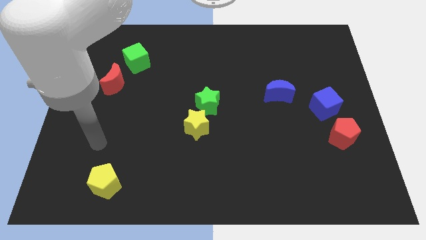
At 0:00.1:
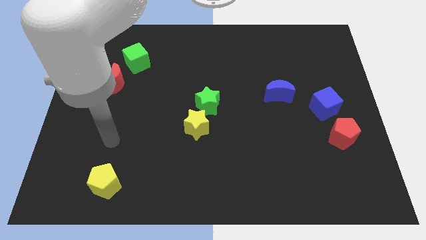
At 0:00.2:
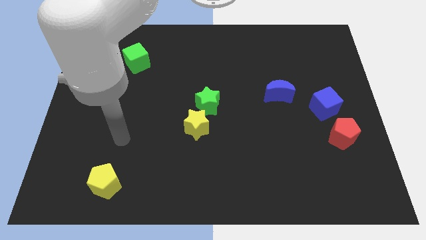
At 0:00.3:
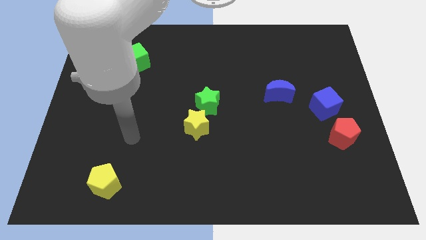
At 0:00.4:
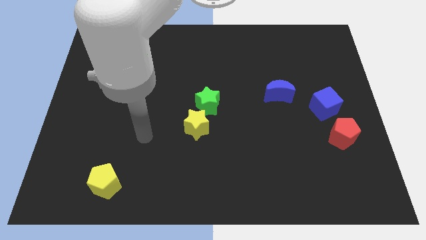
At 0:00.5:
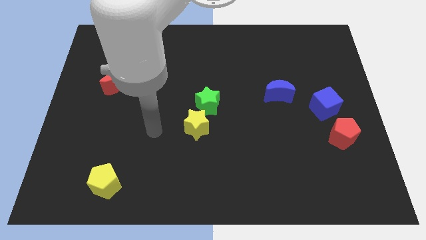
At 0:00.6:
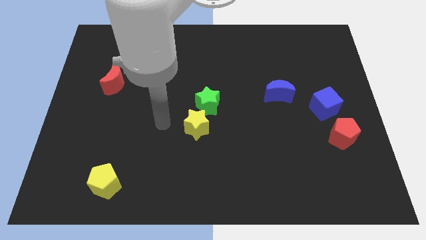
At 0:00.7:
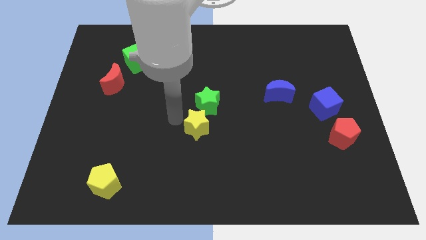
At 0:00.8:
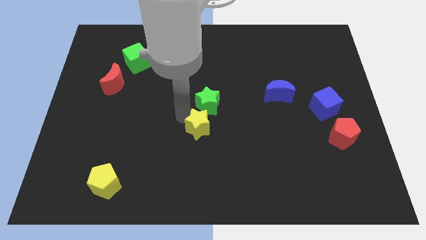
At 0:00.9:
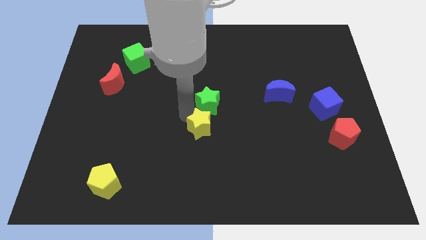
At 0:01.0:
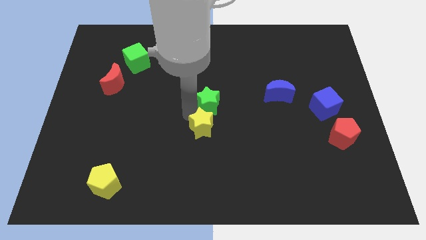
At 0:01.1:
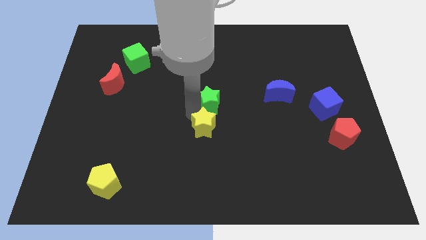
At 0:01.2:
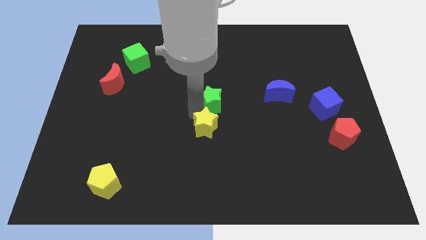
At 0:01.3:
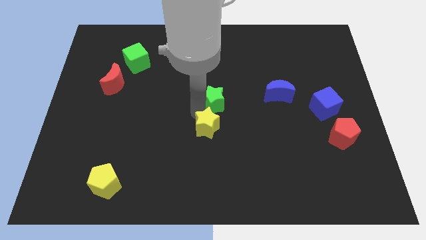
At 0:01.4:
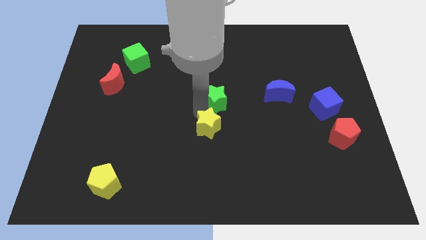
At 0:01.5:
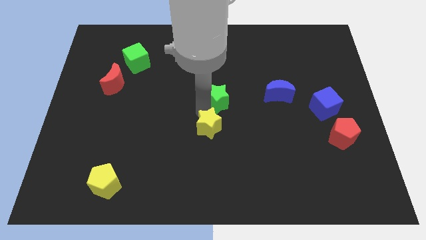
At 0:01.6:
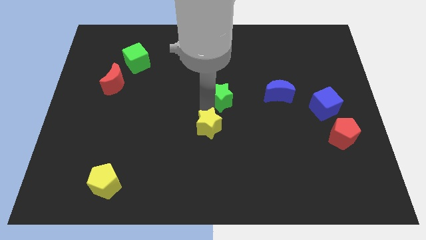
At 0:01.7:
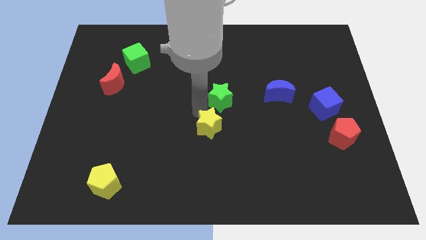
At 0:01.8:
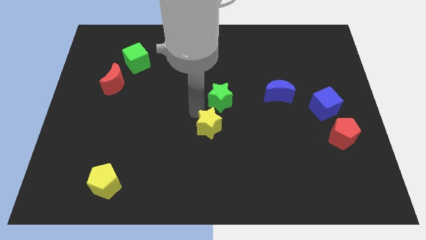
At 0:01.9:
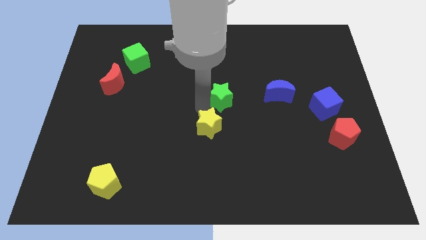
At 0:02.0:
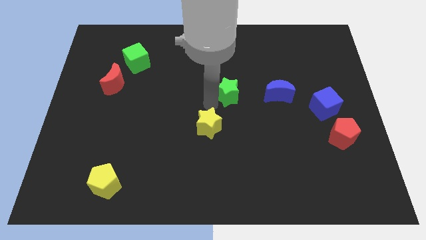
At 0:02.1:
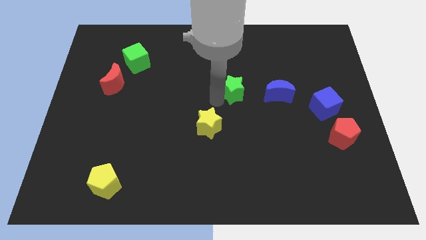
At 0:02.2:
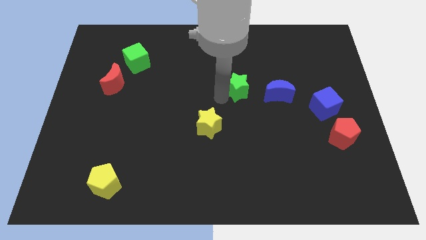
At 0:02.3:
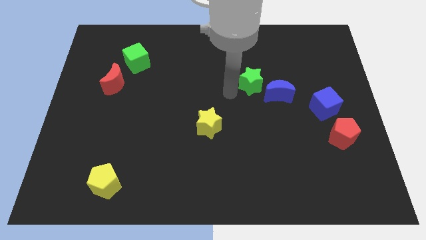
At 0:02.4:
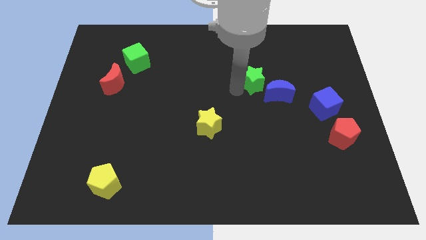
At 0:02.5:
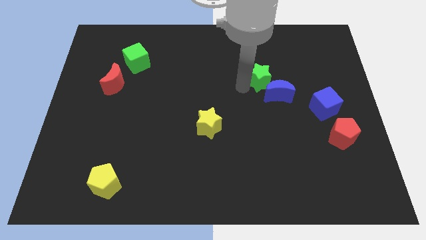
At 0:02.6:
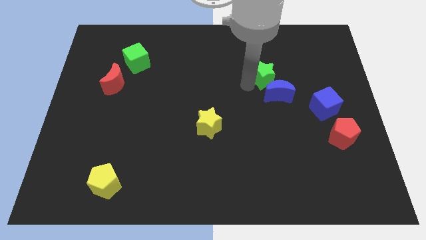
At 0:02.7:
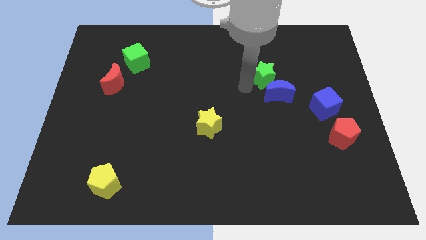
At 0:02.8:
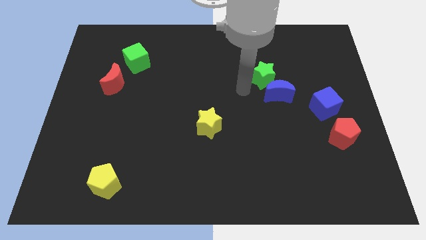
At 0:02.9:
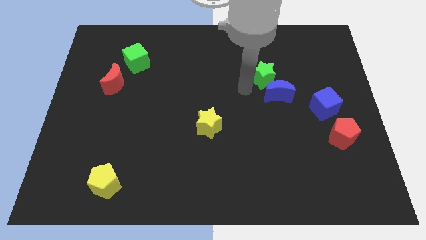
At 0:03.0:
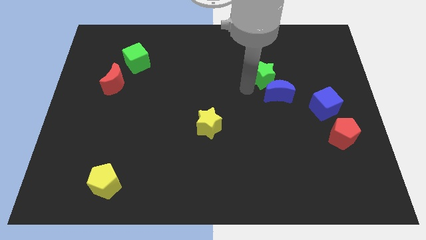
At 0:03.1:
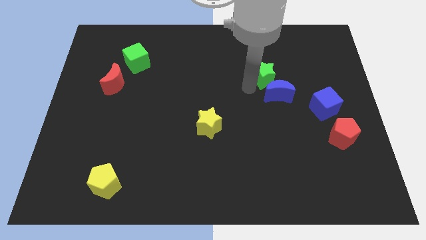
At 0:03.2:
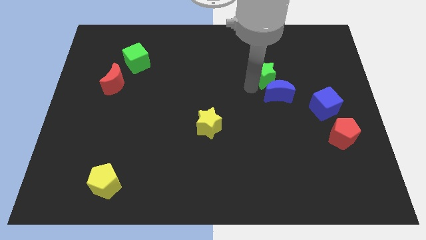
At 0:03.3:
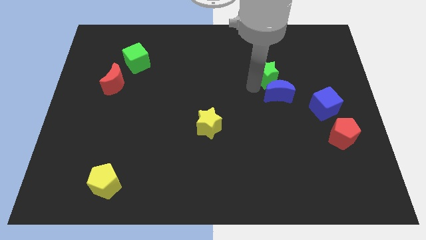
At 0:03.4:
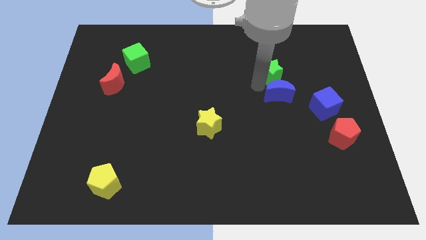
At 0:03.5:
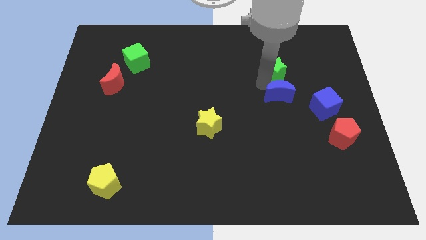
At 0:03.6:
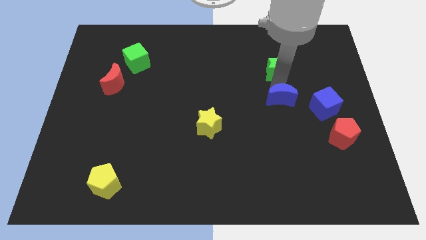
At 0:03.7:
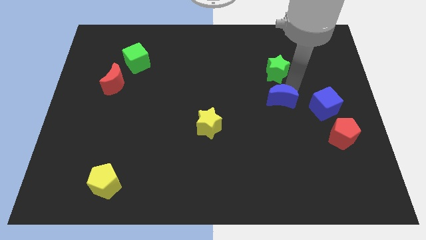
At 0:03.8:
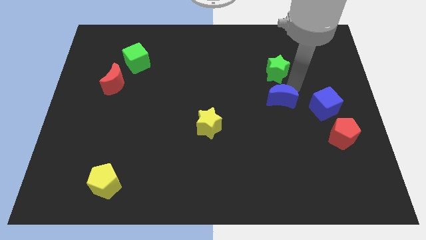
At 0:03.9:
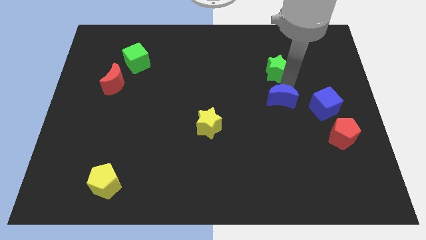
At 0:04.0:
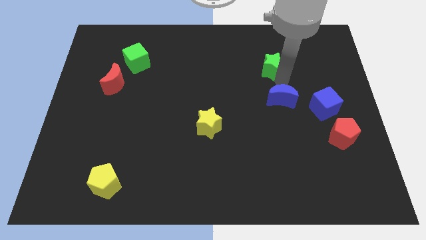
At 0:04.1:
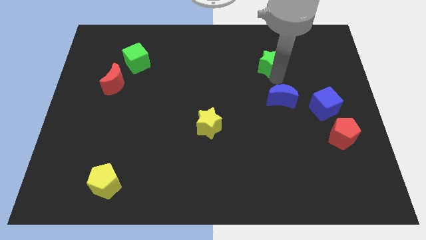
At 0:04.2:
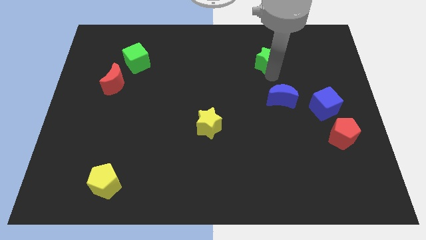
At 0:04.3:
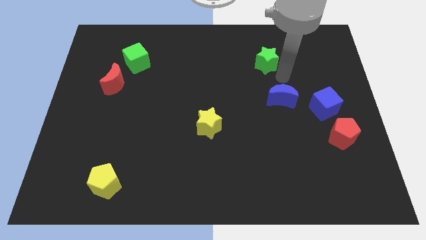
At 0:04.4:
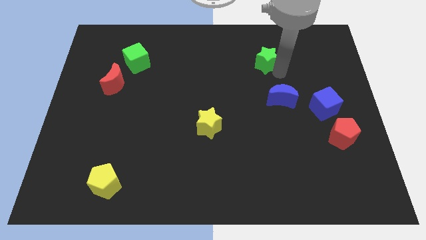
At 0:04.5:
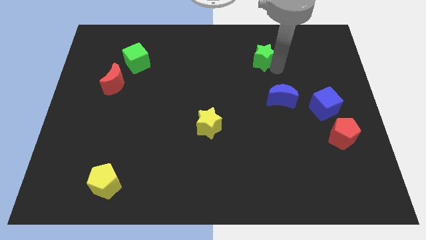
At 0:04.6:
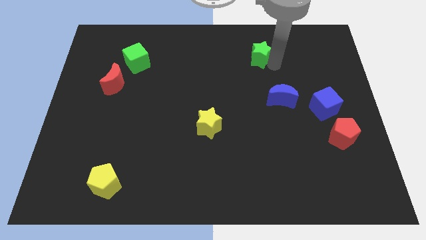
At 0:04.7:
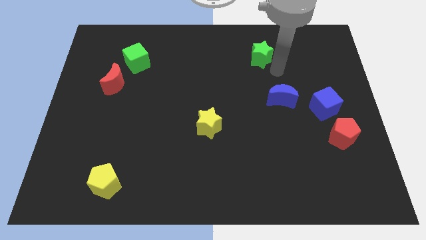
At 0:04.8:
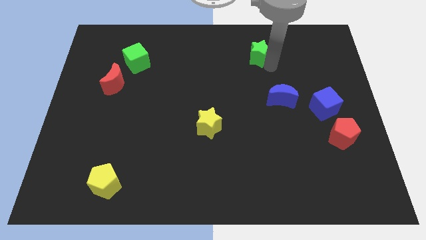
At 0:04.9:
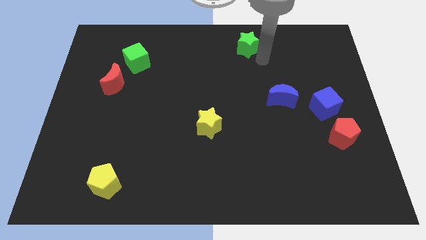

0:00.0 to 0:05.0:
slide the green star to the top side

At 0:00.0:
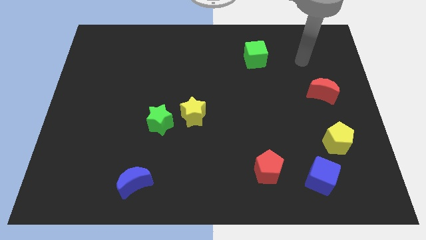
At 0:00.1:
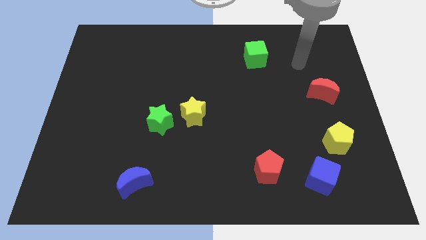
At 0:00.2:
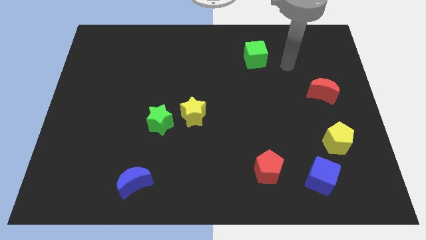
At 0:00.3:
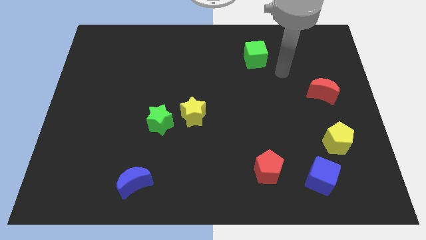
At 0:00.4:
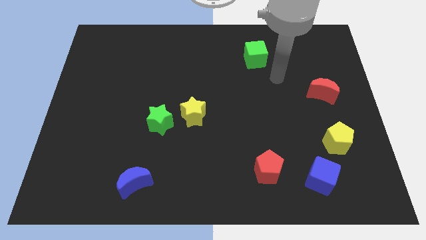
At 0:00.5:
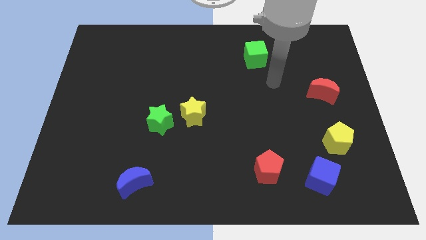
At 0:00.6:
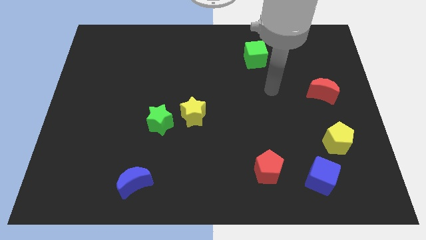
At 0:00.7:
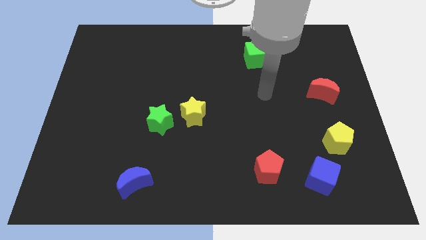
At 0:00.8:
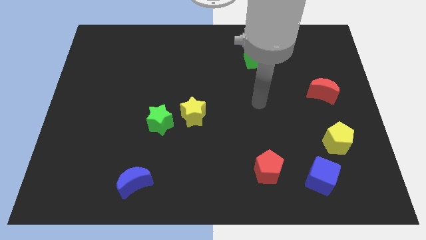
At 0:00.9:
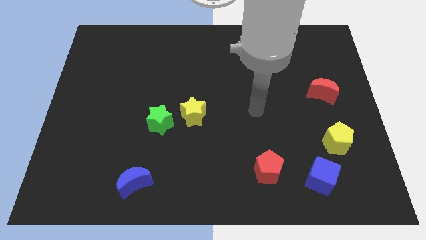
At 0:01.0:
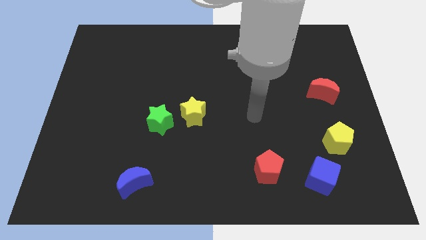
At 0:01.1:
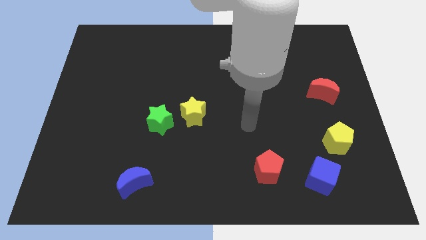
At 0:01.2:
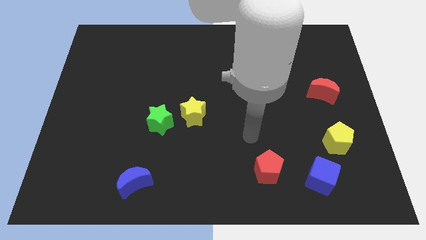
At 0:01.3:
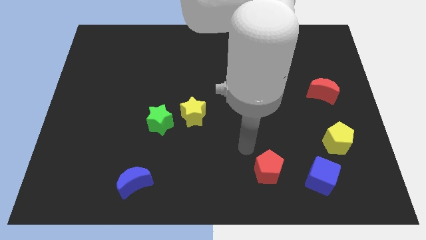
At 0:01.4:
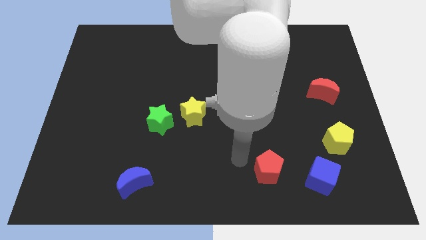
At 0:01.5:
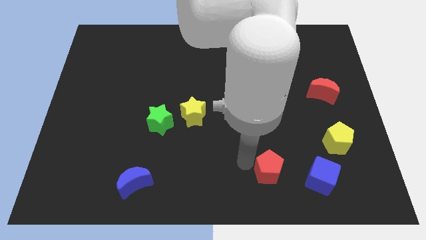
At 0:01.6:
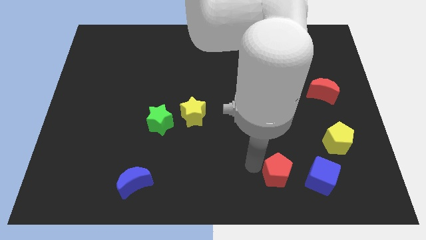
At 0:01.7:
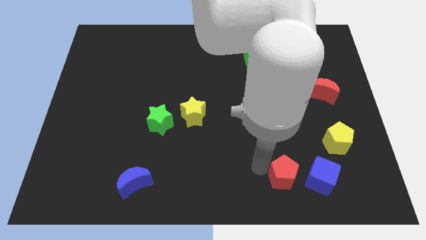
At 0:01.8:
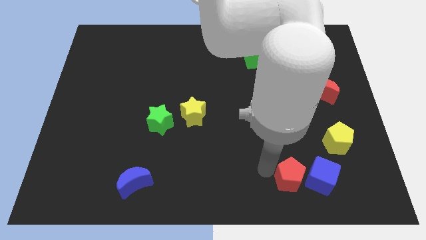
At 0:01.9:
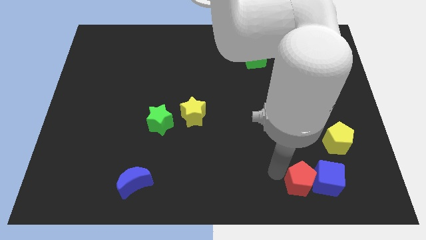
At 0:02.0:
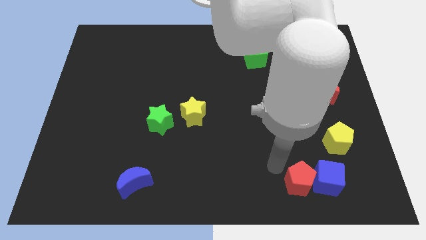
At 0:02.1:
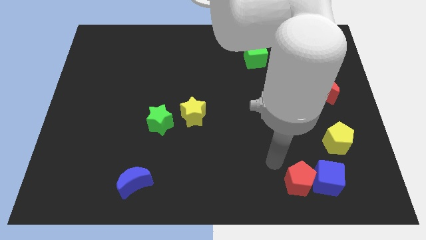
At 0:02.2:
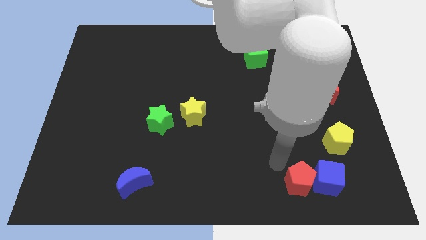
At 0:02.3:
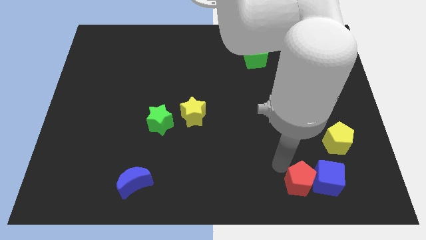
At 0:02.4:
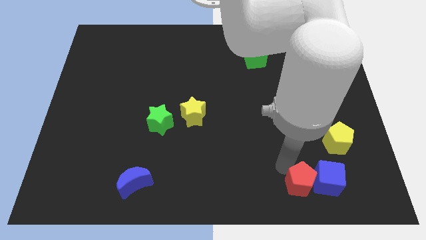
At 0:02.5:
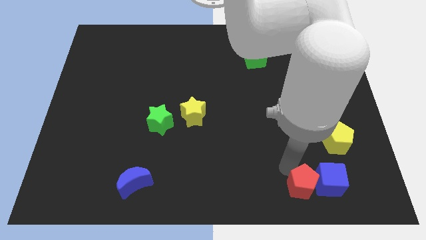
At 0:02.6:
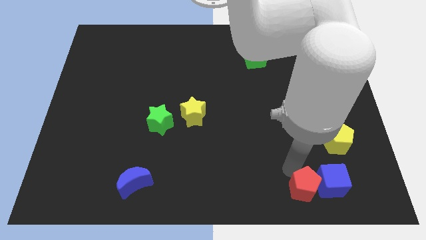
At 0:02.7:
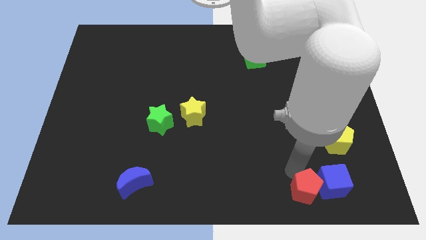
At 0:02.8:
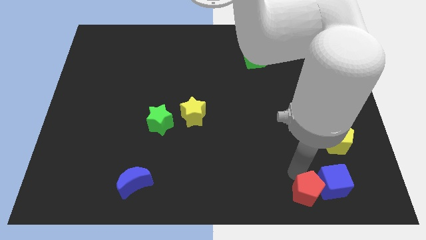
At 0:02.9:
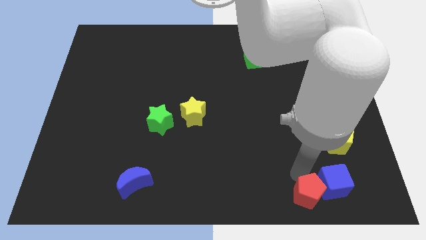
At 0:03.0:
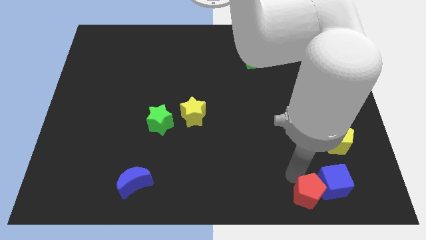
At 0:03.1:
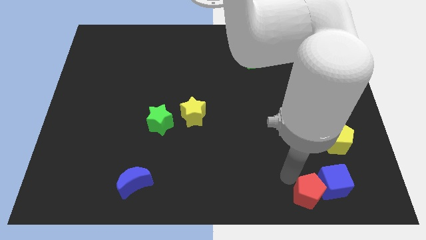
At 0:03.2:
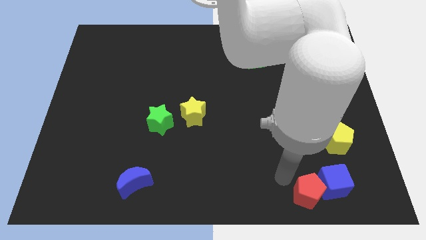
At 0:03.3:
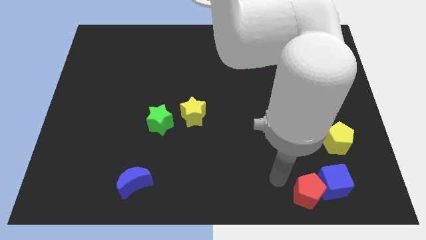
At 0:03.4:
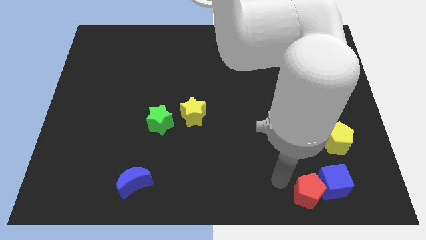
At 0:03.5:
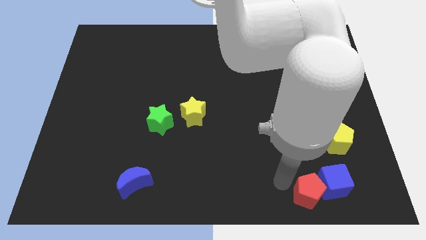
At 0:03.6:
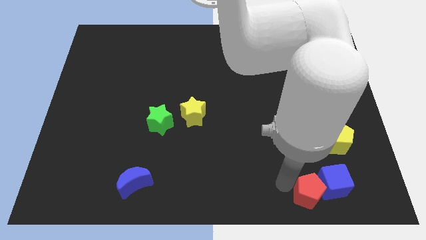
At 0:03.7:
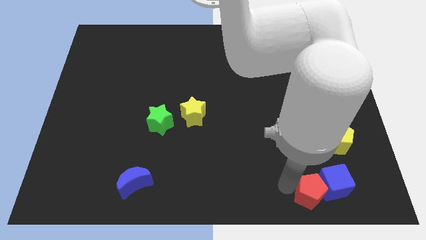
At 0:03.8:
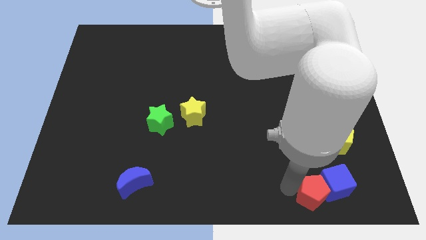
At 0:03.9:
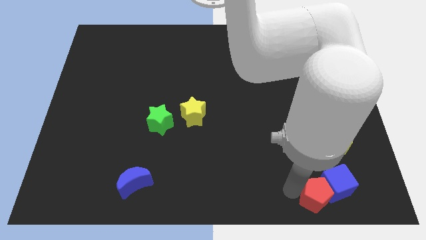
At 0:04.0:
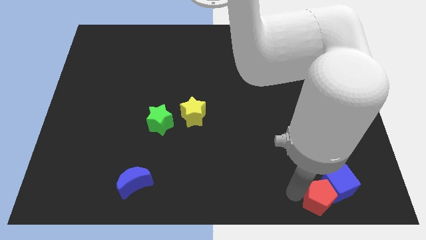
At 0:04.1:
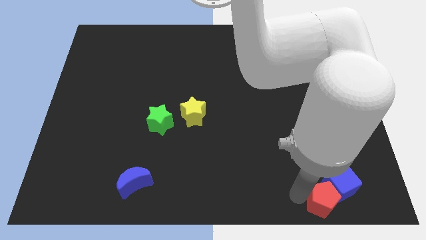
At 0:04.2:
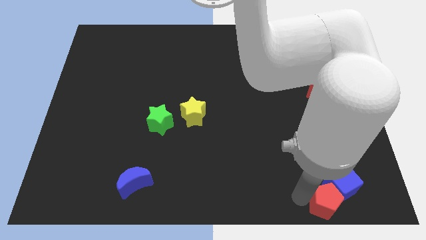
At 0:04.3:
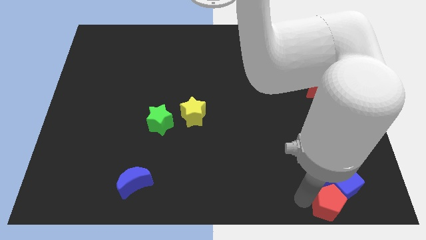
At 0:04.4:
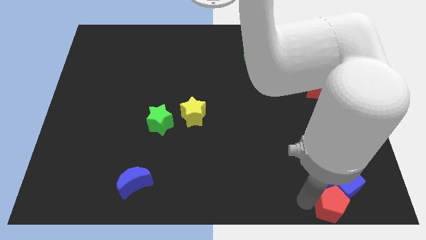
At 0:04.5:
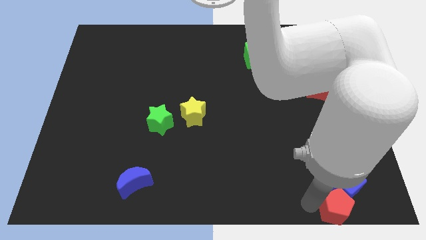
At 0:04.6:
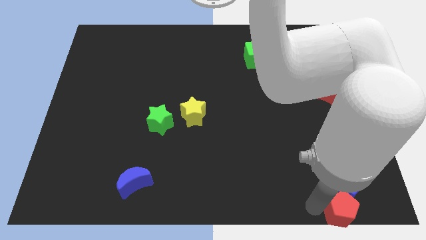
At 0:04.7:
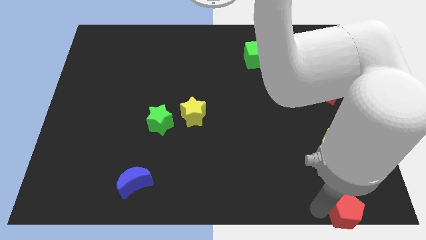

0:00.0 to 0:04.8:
slide the red pentagon to the lower right corner
